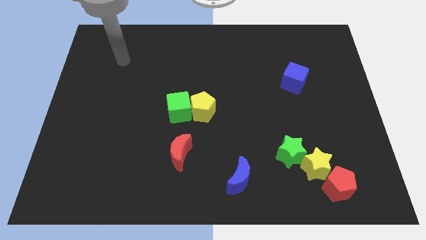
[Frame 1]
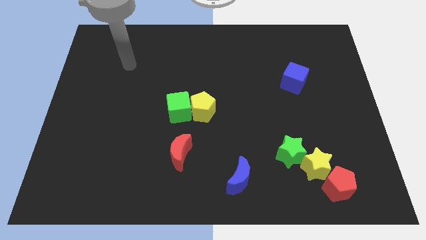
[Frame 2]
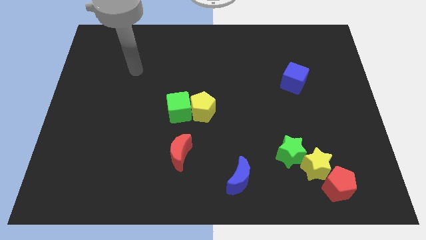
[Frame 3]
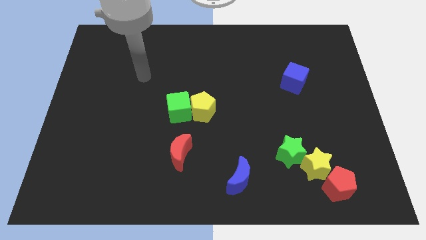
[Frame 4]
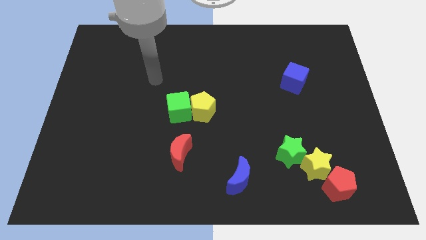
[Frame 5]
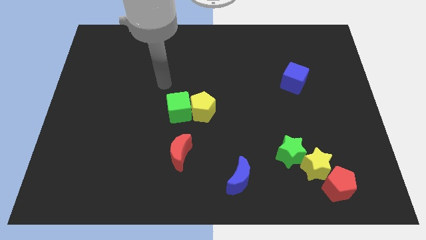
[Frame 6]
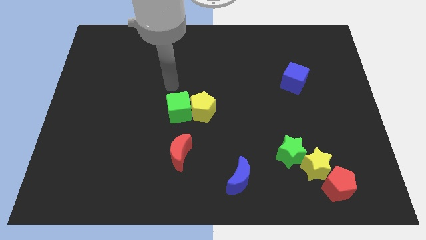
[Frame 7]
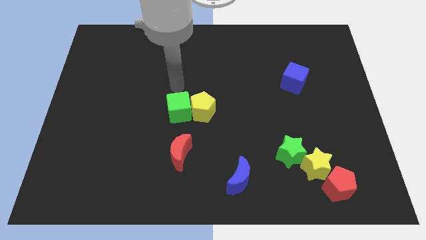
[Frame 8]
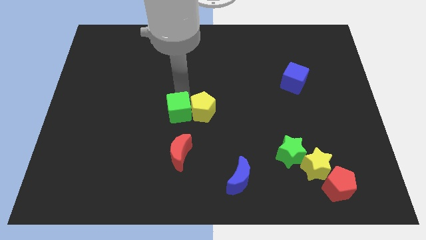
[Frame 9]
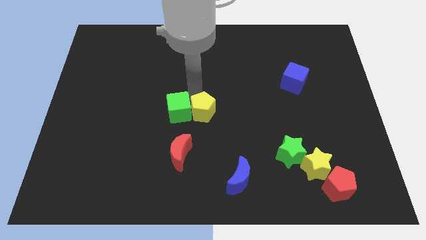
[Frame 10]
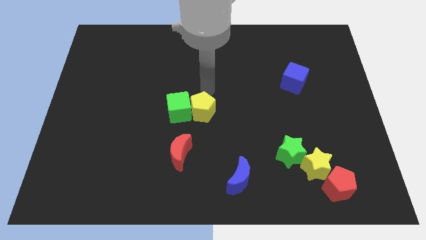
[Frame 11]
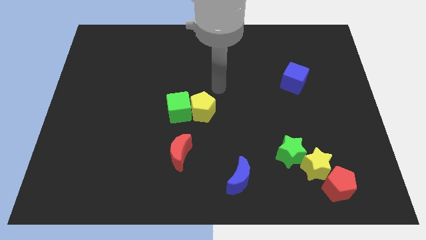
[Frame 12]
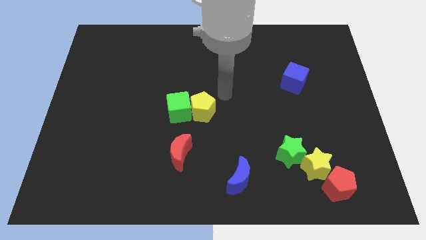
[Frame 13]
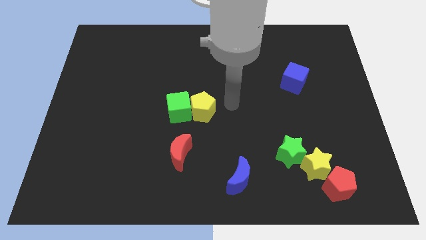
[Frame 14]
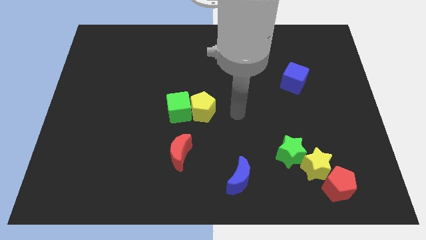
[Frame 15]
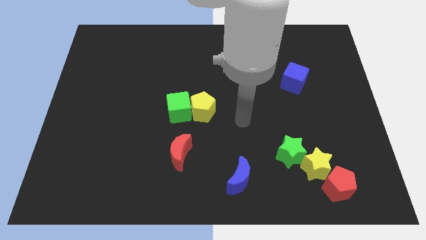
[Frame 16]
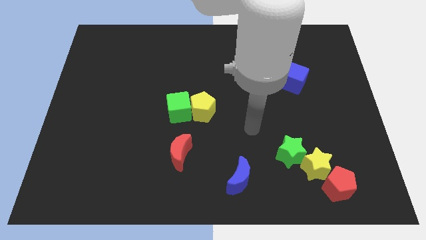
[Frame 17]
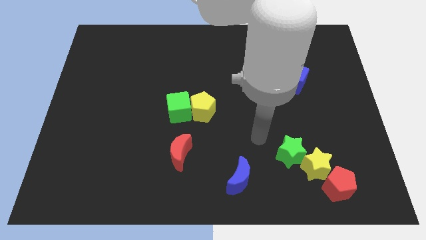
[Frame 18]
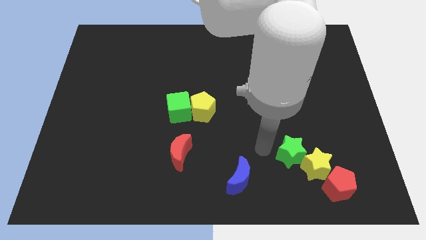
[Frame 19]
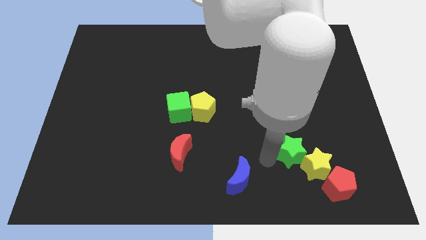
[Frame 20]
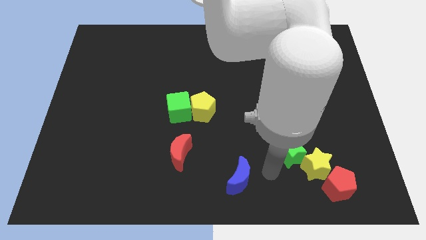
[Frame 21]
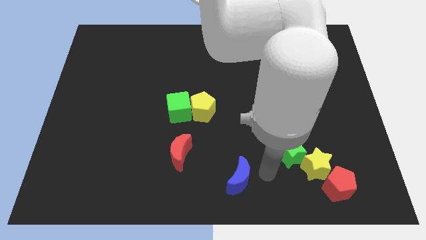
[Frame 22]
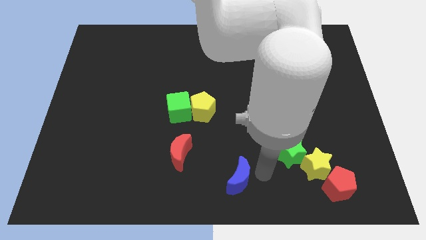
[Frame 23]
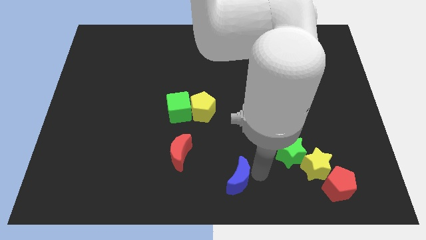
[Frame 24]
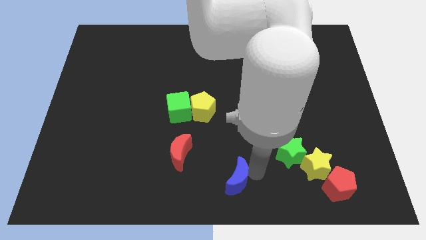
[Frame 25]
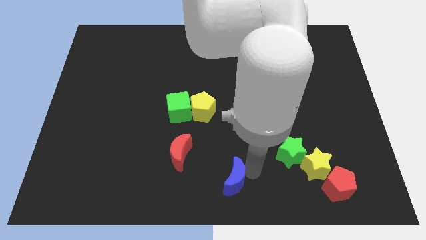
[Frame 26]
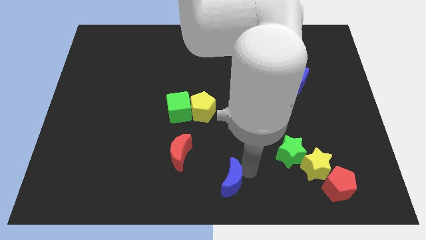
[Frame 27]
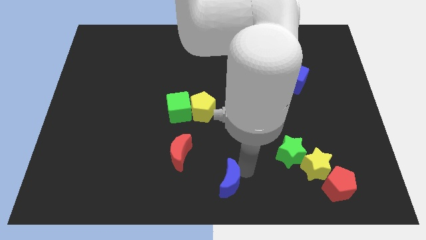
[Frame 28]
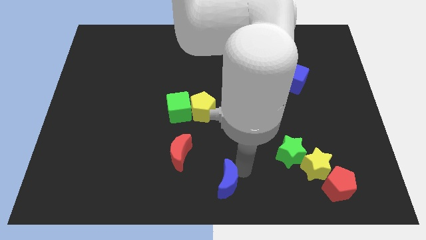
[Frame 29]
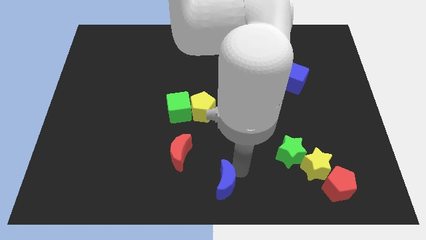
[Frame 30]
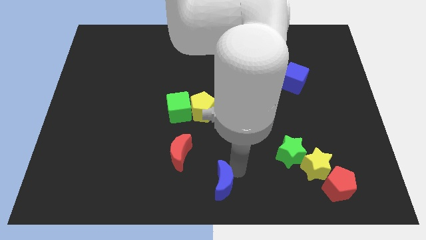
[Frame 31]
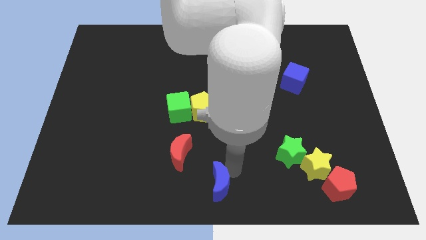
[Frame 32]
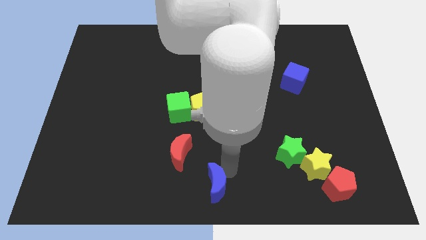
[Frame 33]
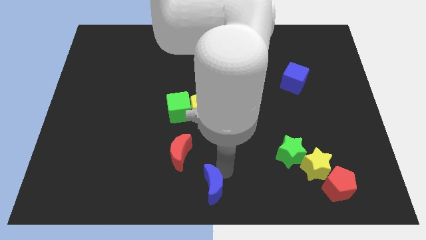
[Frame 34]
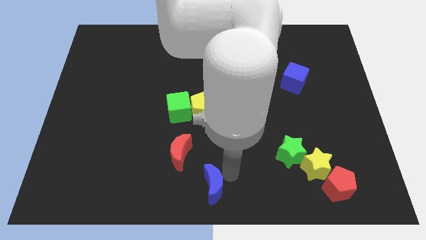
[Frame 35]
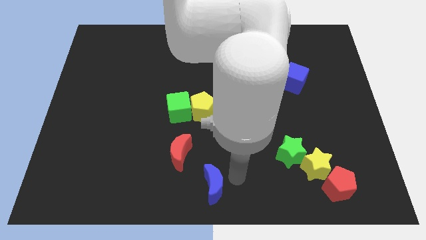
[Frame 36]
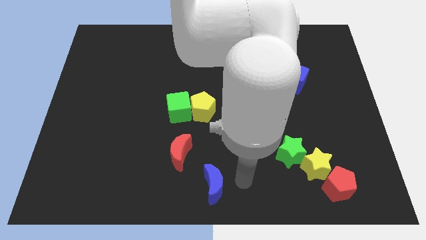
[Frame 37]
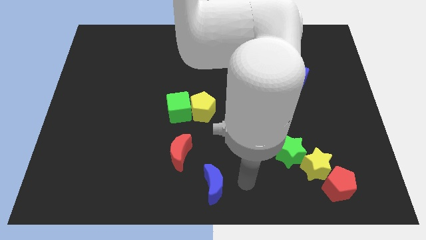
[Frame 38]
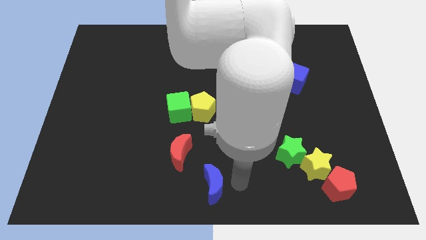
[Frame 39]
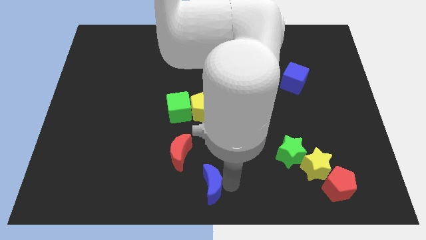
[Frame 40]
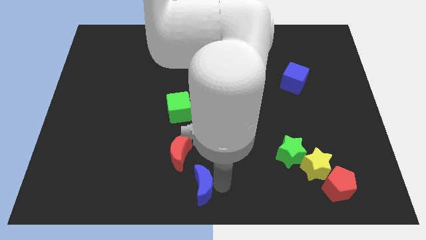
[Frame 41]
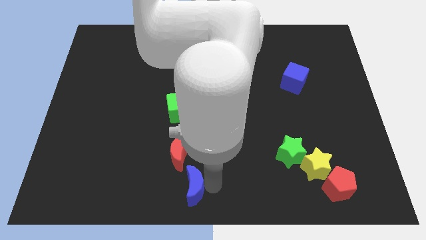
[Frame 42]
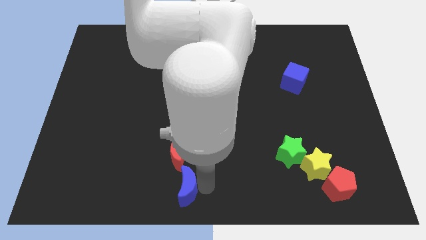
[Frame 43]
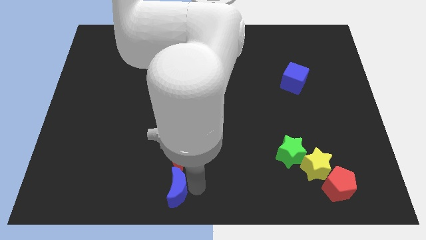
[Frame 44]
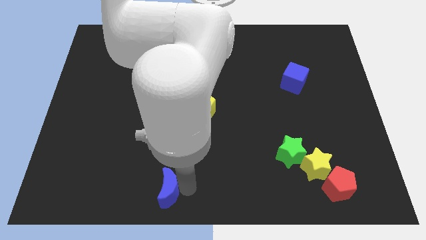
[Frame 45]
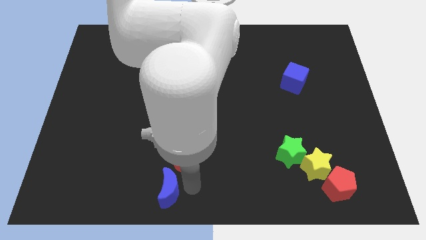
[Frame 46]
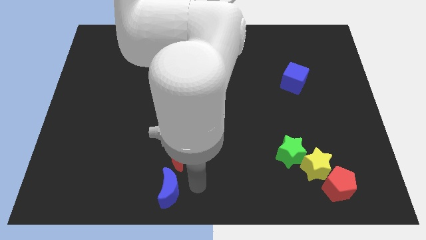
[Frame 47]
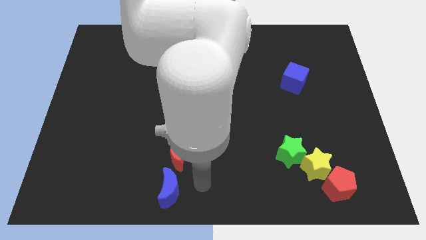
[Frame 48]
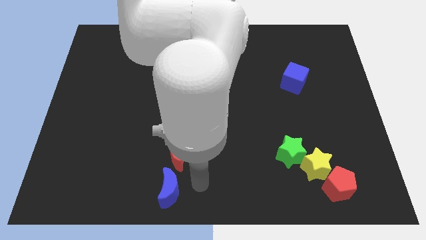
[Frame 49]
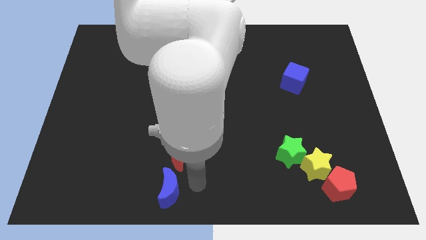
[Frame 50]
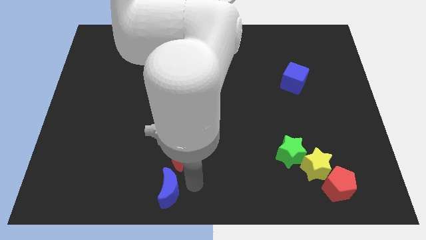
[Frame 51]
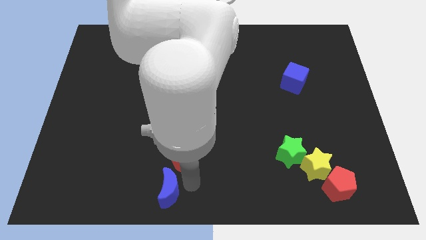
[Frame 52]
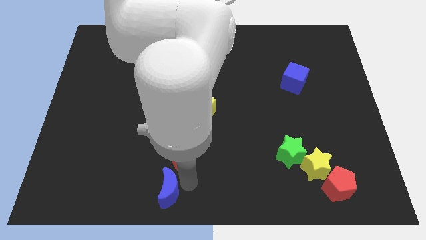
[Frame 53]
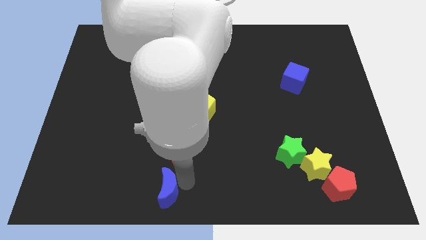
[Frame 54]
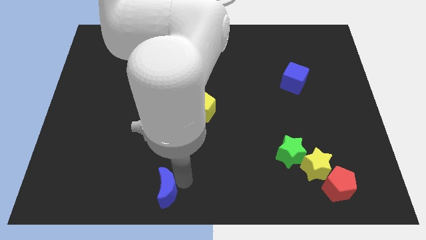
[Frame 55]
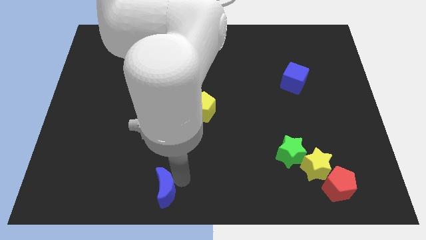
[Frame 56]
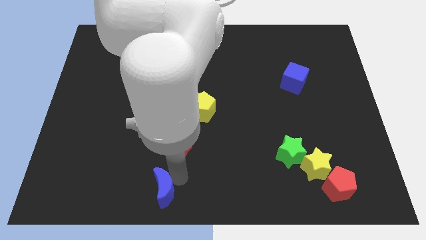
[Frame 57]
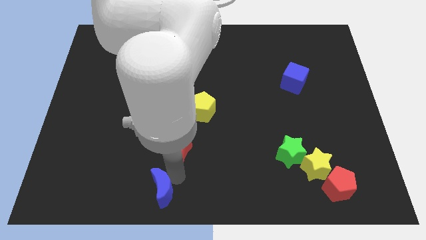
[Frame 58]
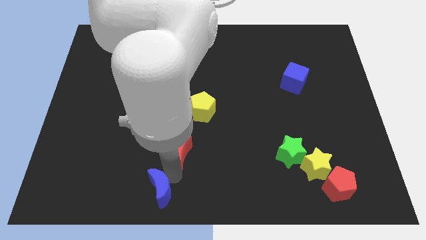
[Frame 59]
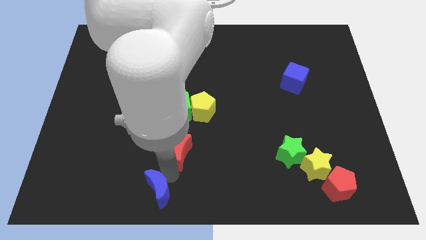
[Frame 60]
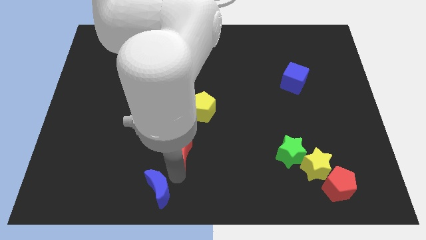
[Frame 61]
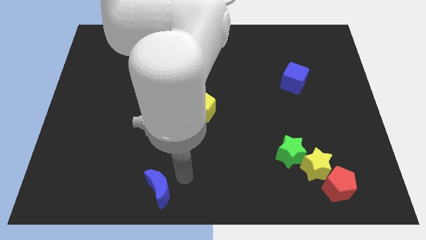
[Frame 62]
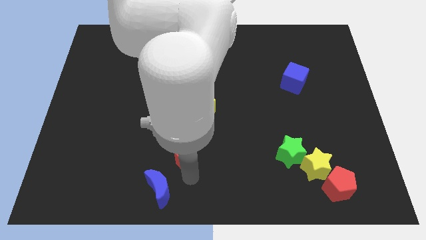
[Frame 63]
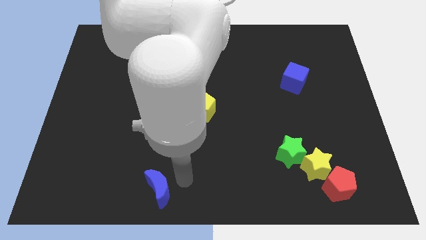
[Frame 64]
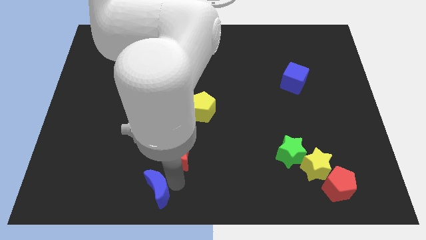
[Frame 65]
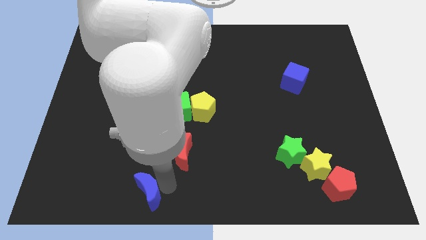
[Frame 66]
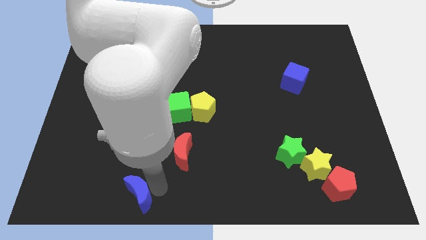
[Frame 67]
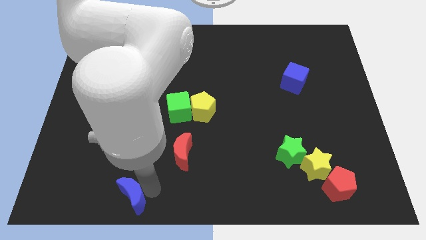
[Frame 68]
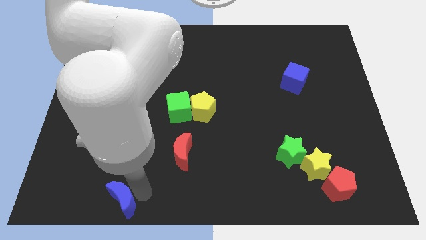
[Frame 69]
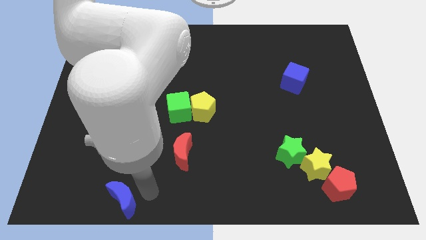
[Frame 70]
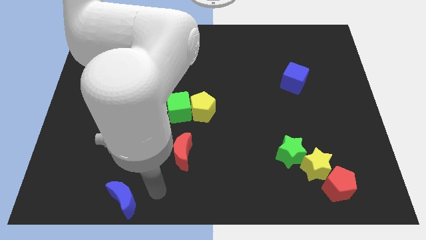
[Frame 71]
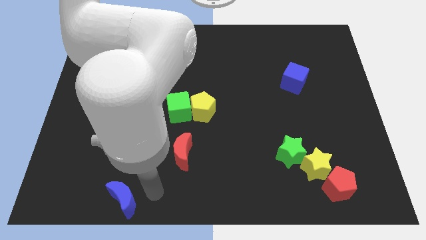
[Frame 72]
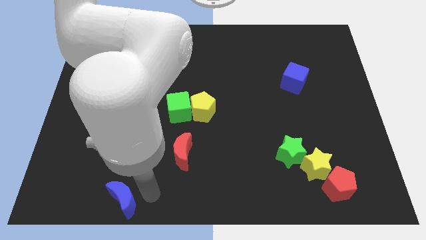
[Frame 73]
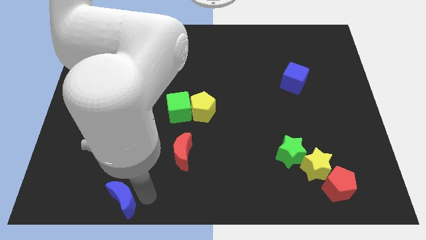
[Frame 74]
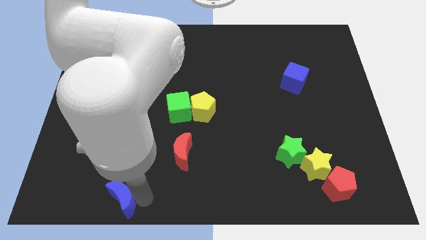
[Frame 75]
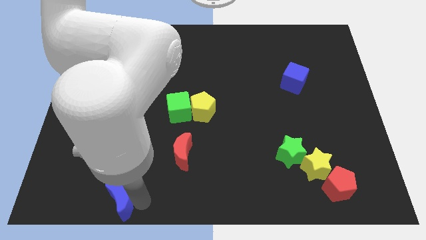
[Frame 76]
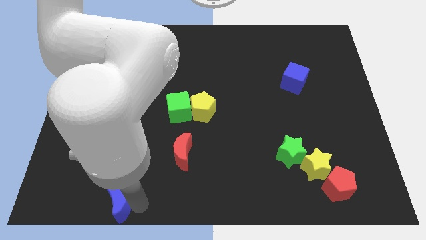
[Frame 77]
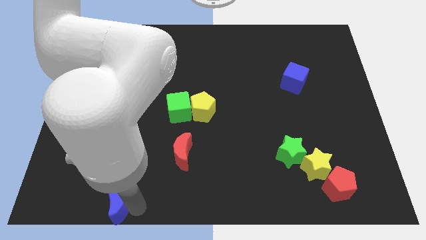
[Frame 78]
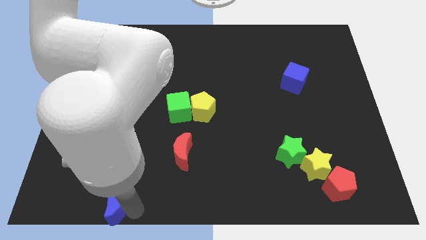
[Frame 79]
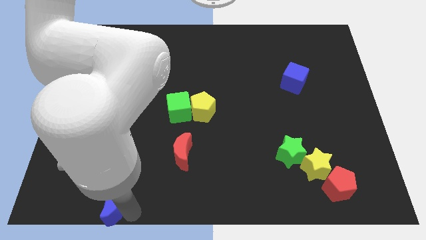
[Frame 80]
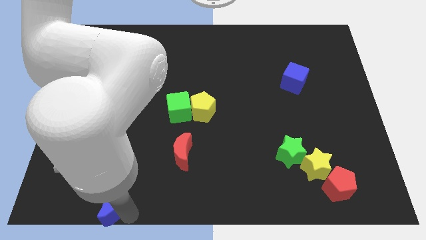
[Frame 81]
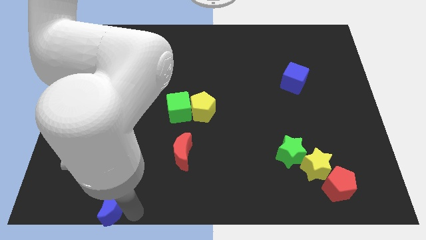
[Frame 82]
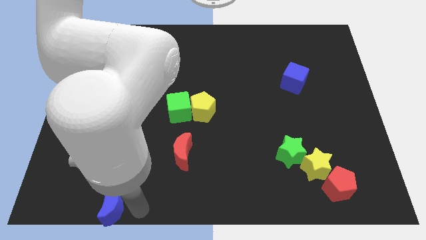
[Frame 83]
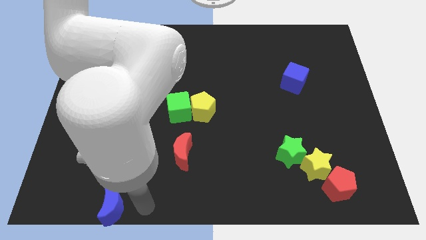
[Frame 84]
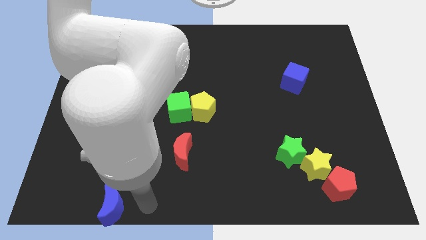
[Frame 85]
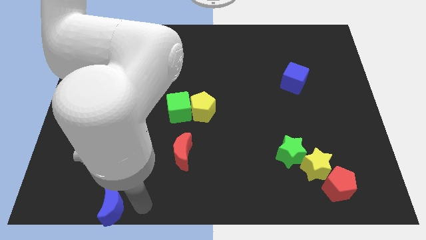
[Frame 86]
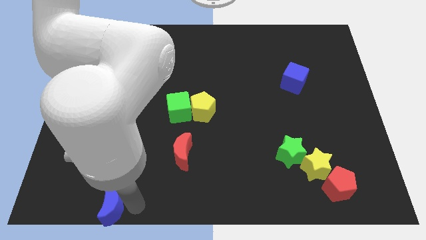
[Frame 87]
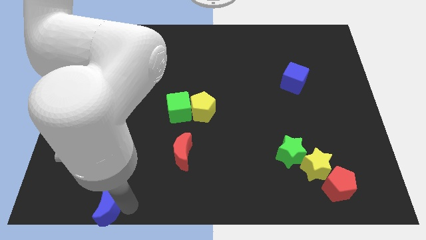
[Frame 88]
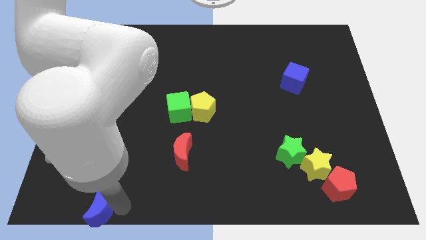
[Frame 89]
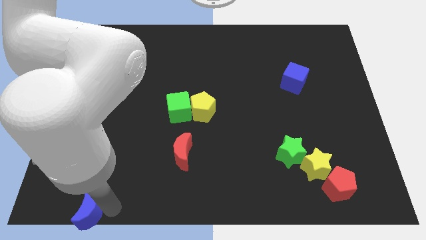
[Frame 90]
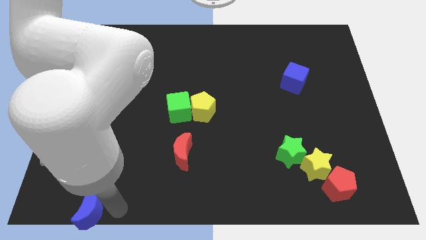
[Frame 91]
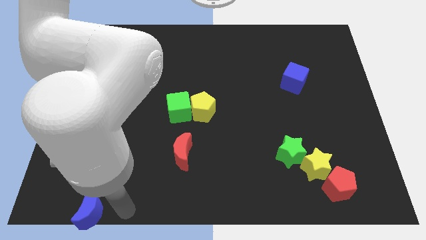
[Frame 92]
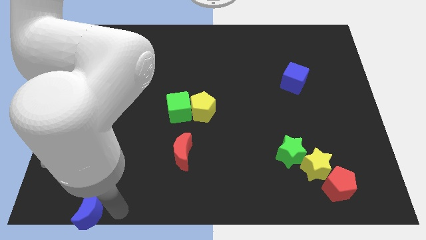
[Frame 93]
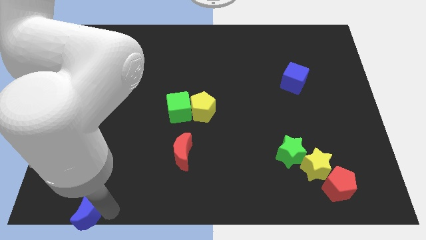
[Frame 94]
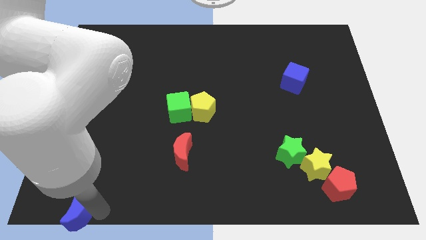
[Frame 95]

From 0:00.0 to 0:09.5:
slide the blue moon to the bottom left of the board
